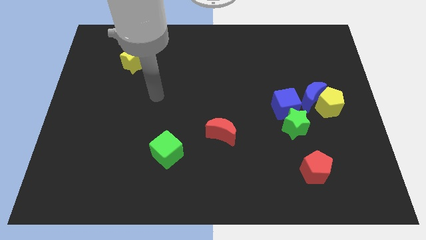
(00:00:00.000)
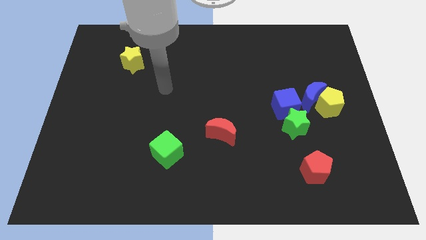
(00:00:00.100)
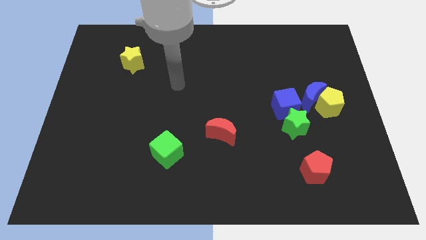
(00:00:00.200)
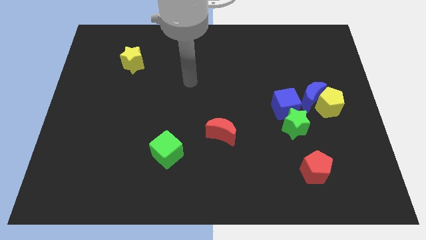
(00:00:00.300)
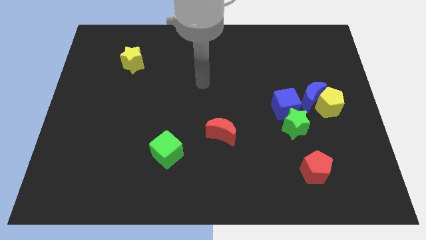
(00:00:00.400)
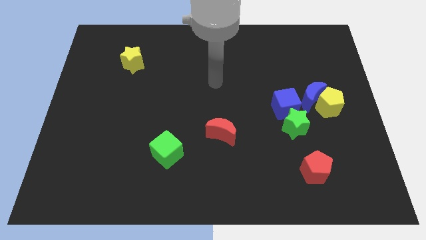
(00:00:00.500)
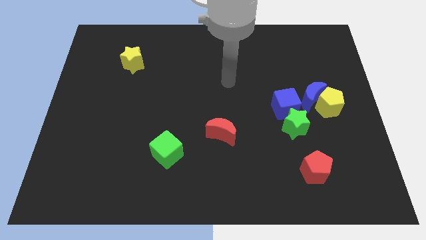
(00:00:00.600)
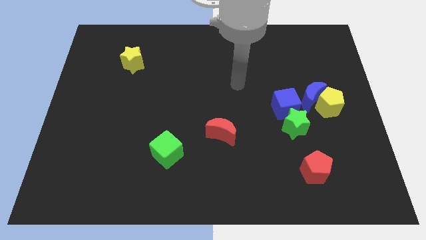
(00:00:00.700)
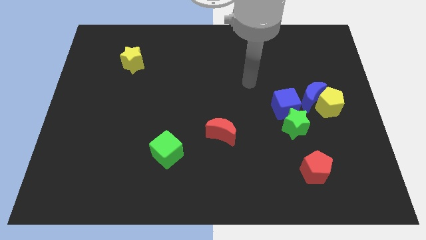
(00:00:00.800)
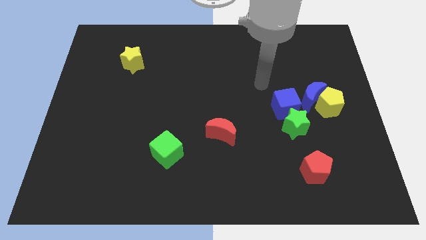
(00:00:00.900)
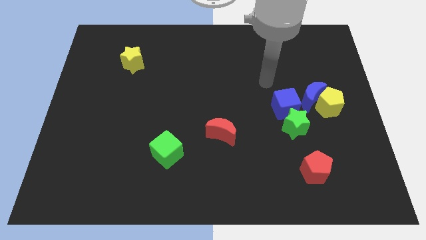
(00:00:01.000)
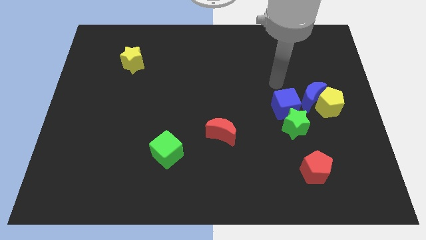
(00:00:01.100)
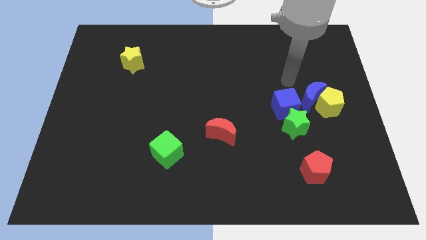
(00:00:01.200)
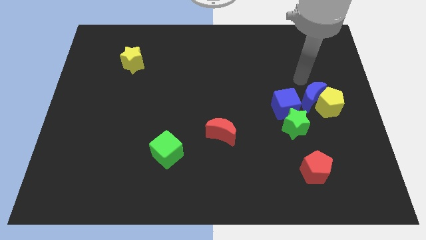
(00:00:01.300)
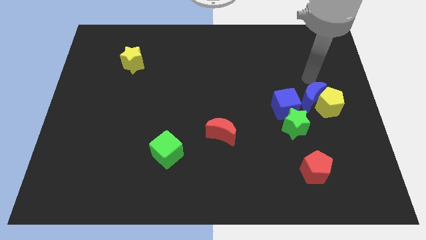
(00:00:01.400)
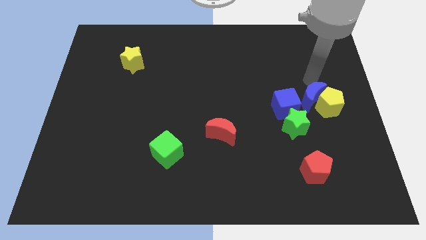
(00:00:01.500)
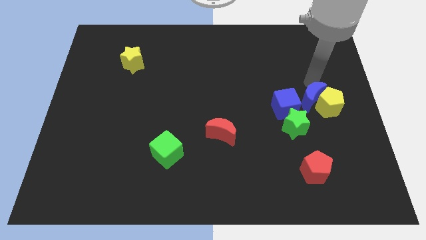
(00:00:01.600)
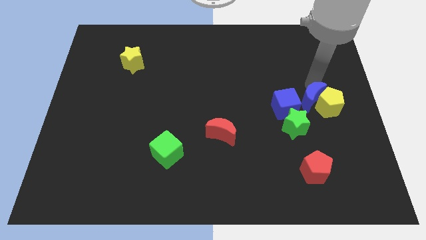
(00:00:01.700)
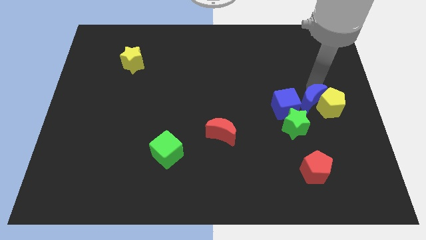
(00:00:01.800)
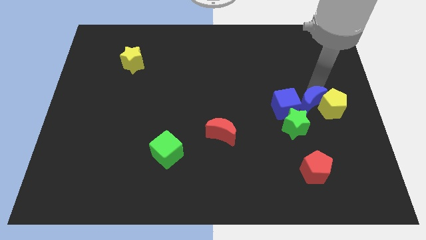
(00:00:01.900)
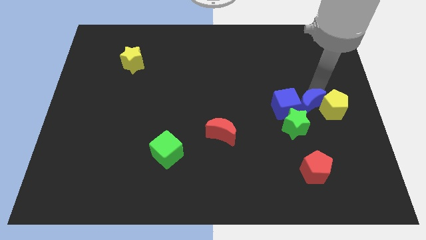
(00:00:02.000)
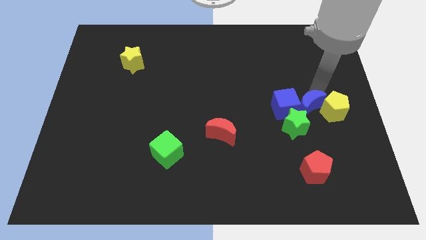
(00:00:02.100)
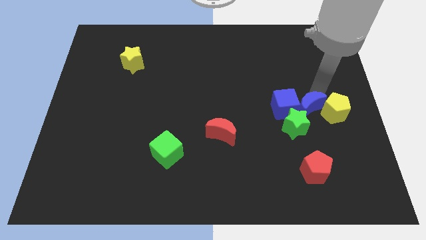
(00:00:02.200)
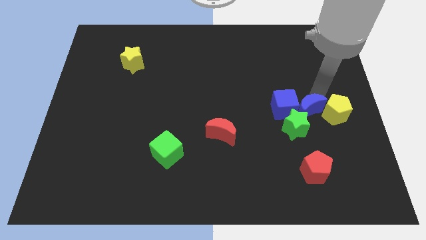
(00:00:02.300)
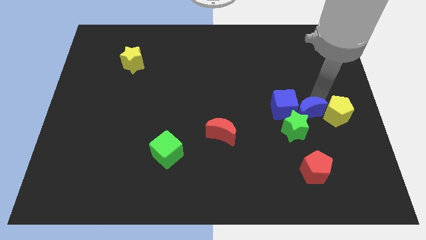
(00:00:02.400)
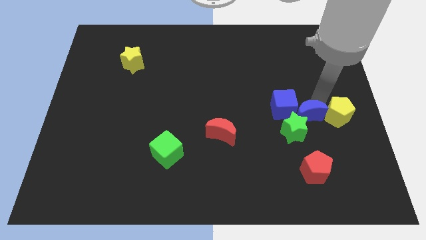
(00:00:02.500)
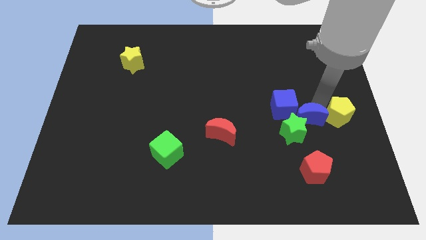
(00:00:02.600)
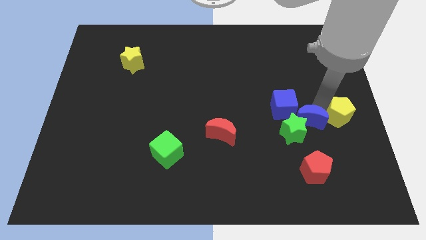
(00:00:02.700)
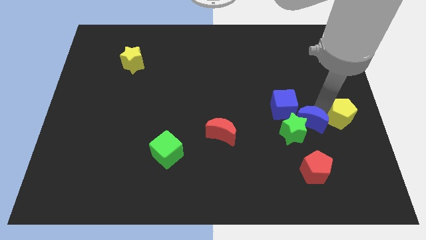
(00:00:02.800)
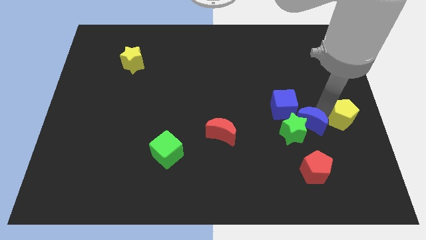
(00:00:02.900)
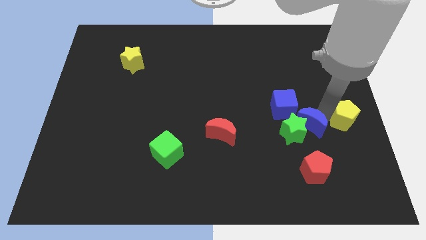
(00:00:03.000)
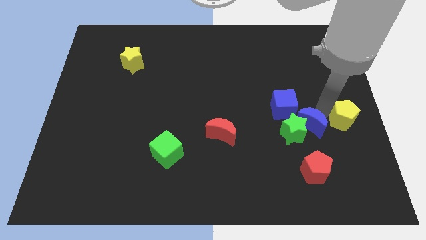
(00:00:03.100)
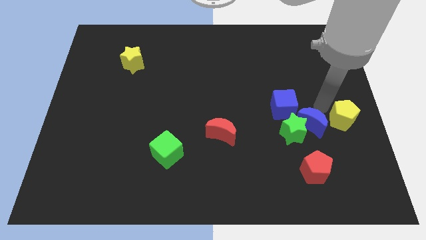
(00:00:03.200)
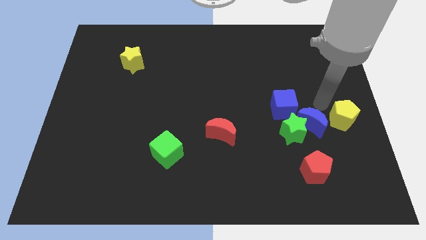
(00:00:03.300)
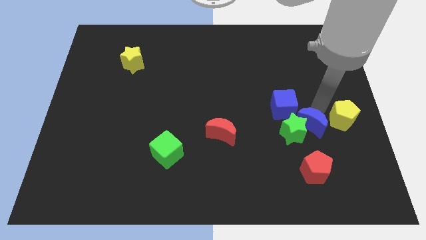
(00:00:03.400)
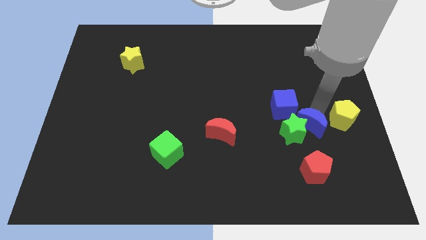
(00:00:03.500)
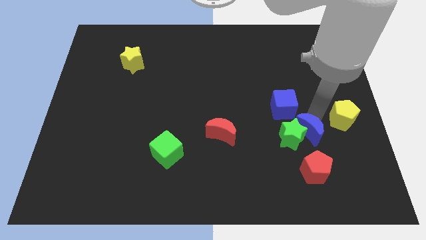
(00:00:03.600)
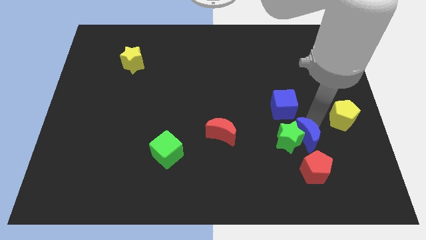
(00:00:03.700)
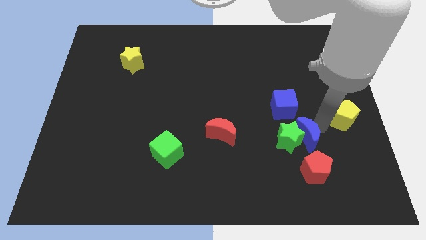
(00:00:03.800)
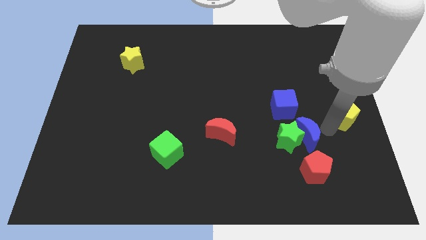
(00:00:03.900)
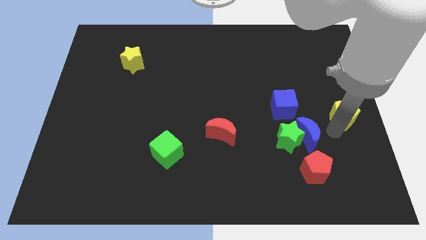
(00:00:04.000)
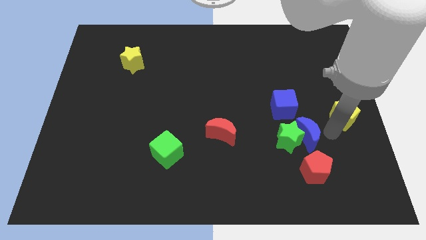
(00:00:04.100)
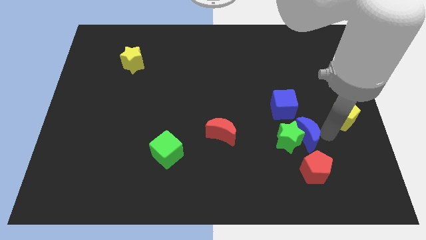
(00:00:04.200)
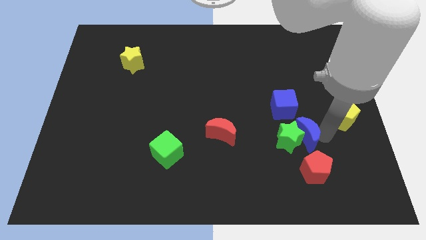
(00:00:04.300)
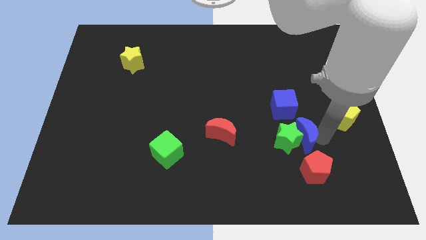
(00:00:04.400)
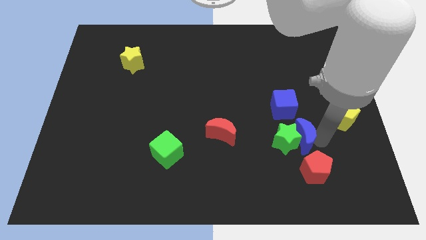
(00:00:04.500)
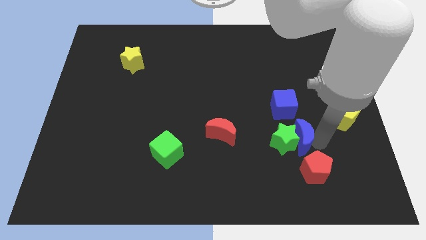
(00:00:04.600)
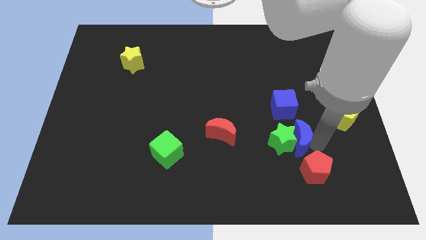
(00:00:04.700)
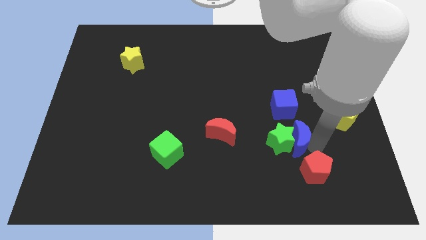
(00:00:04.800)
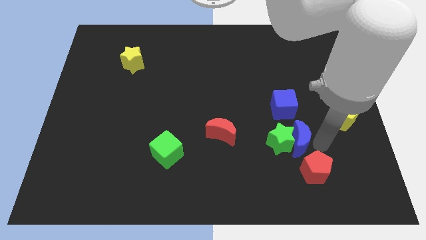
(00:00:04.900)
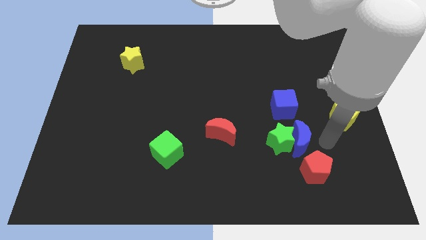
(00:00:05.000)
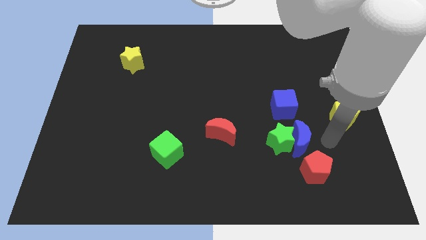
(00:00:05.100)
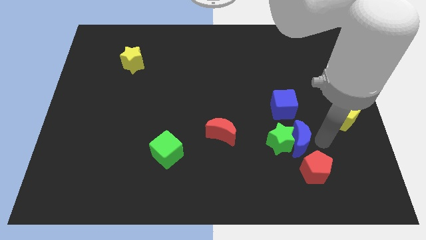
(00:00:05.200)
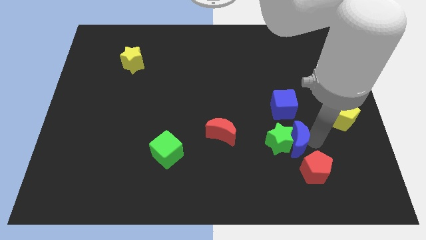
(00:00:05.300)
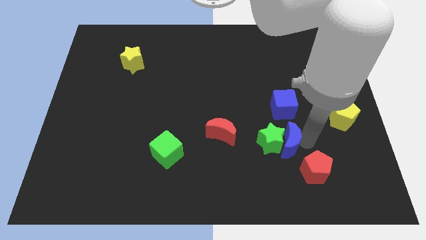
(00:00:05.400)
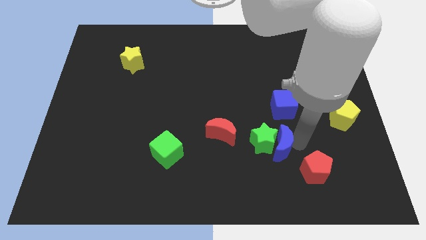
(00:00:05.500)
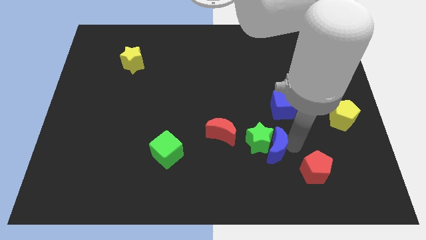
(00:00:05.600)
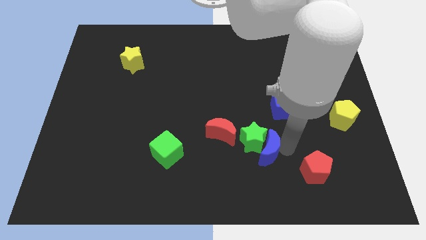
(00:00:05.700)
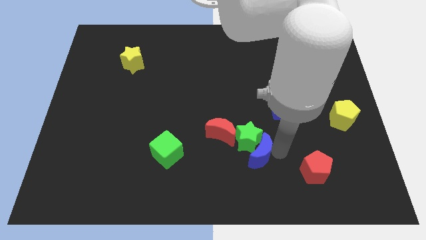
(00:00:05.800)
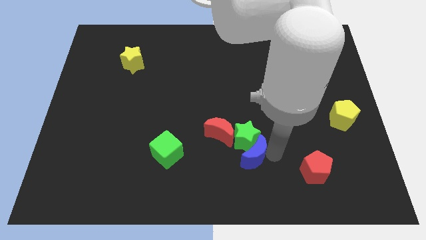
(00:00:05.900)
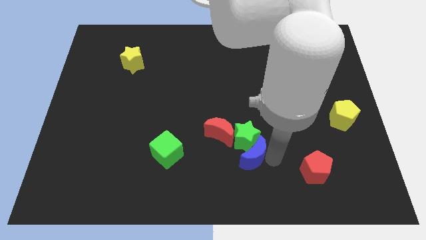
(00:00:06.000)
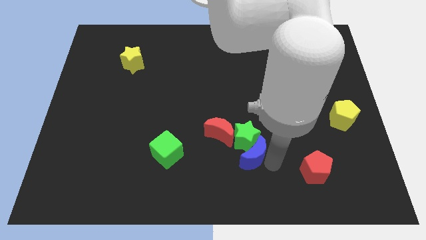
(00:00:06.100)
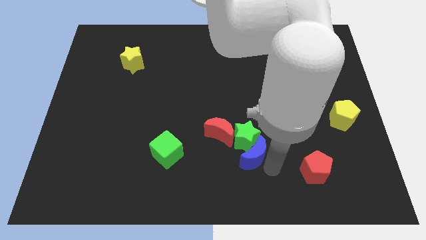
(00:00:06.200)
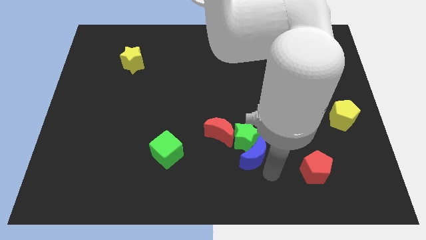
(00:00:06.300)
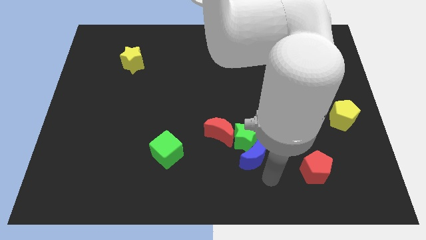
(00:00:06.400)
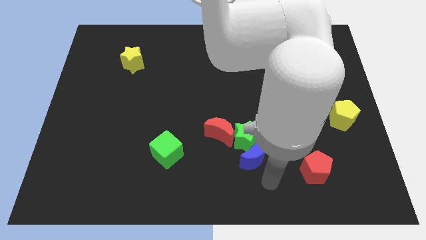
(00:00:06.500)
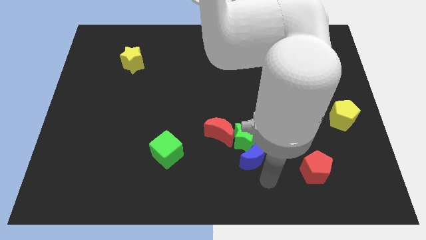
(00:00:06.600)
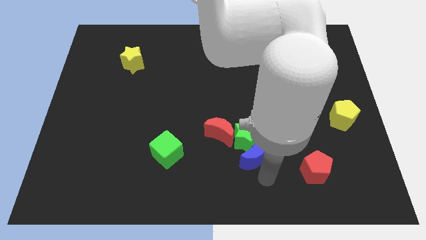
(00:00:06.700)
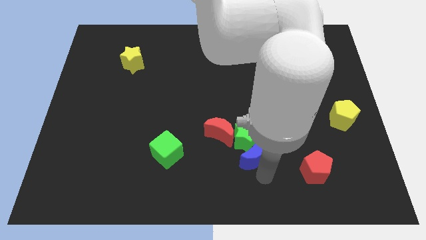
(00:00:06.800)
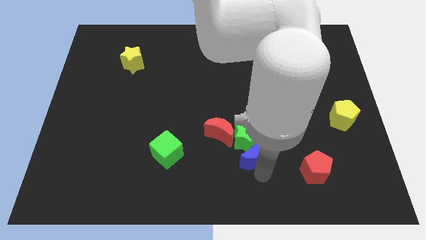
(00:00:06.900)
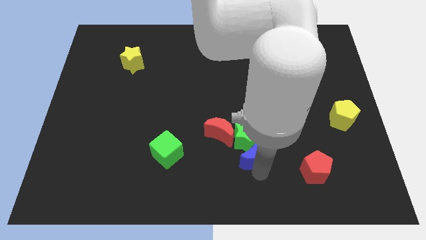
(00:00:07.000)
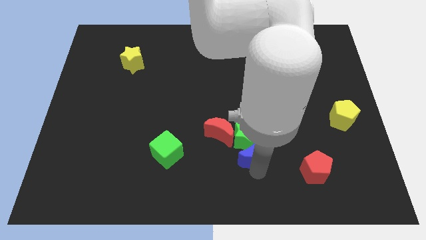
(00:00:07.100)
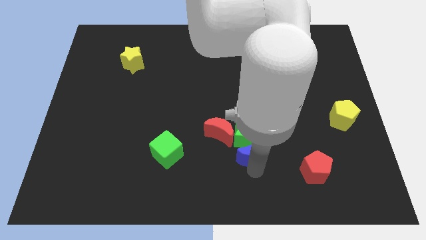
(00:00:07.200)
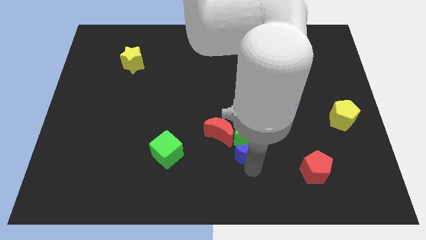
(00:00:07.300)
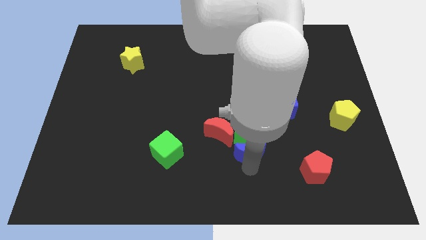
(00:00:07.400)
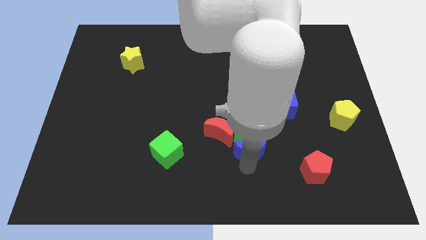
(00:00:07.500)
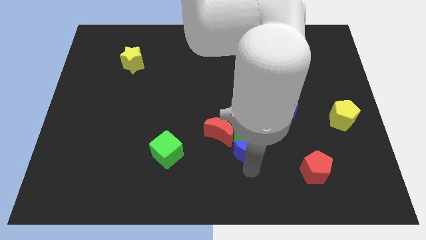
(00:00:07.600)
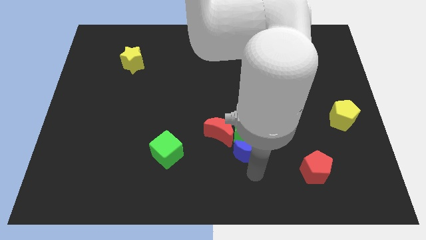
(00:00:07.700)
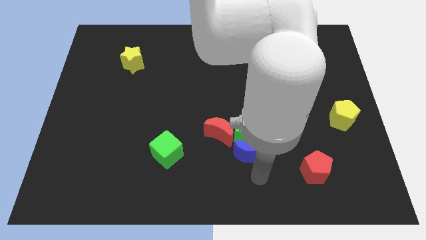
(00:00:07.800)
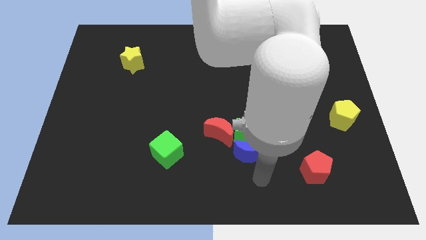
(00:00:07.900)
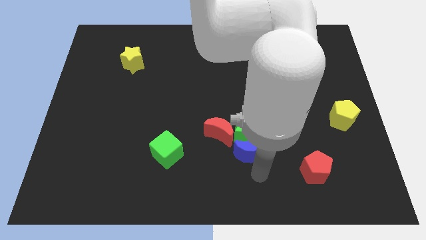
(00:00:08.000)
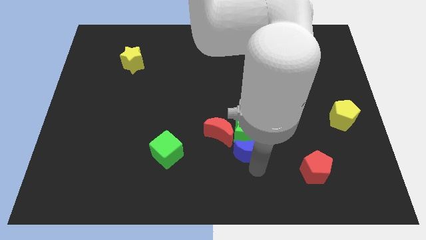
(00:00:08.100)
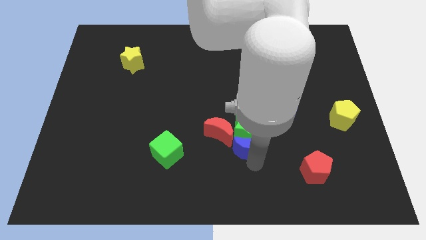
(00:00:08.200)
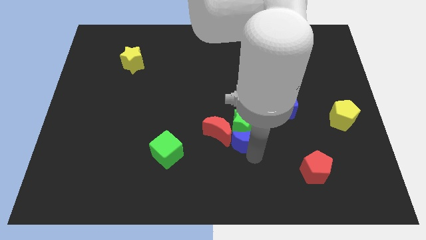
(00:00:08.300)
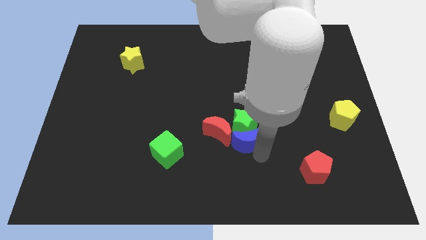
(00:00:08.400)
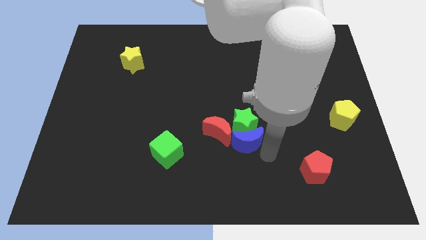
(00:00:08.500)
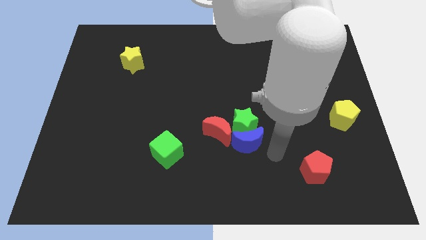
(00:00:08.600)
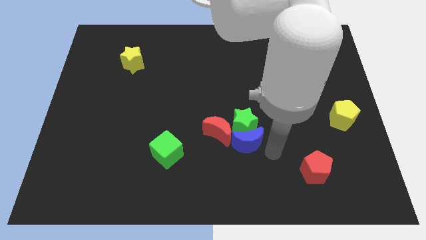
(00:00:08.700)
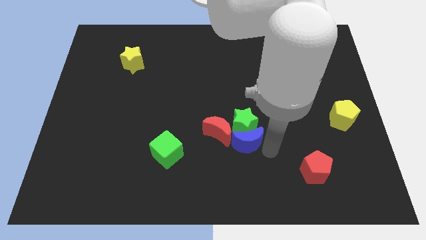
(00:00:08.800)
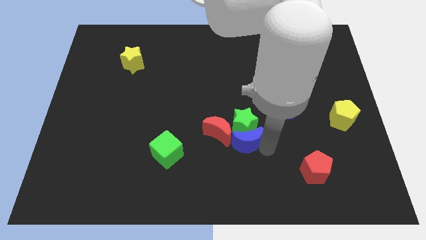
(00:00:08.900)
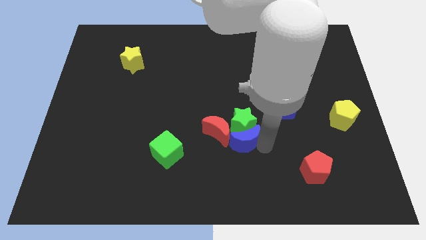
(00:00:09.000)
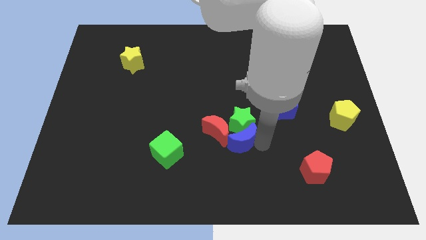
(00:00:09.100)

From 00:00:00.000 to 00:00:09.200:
push the blue moon next to the red moon
